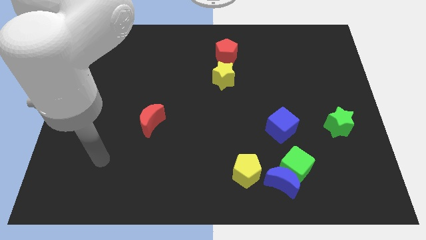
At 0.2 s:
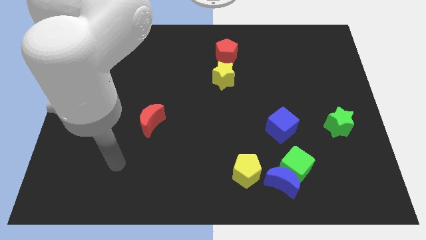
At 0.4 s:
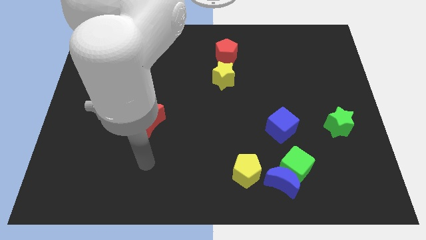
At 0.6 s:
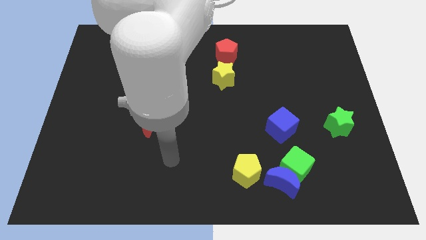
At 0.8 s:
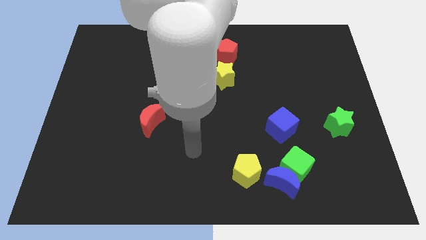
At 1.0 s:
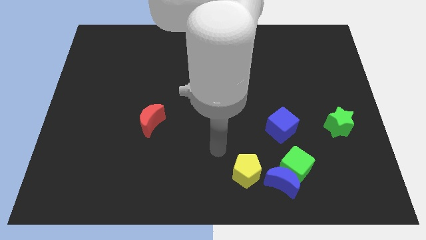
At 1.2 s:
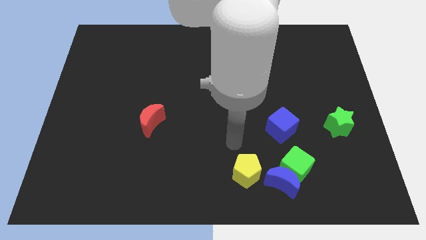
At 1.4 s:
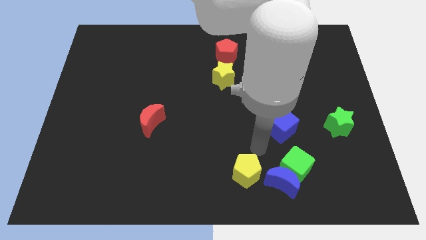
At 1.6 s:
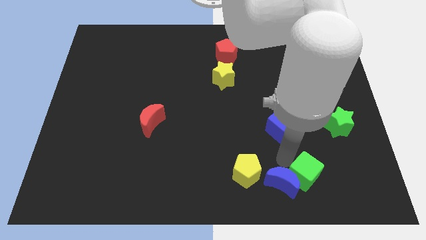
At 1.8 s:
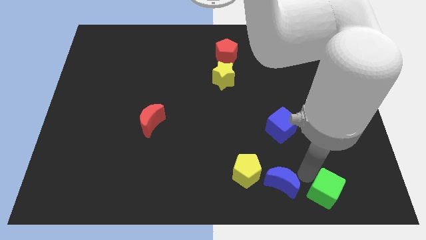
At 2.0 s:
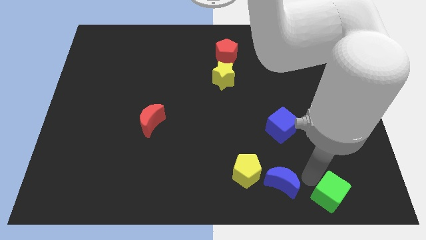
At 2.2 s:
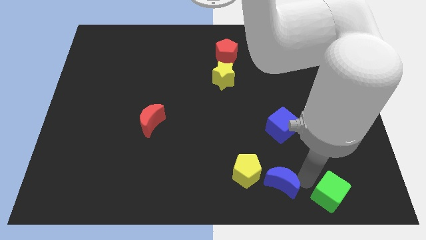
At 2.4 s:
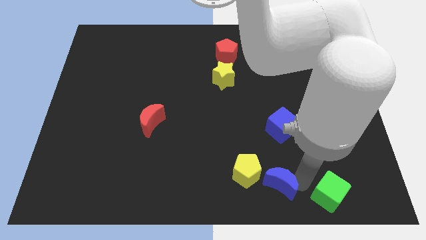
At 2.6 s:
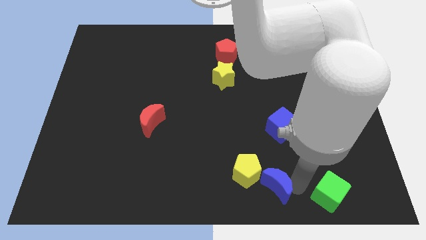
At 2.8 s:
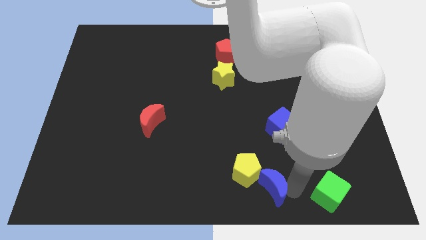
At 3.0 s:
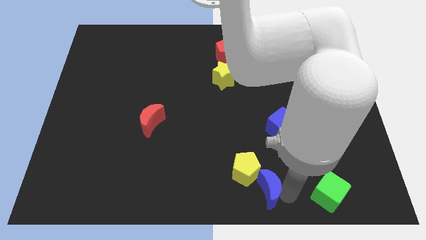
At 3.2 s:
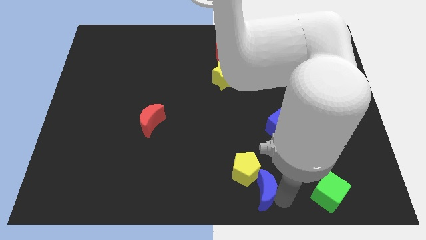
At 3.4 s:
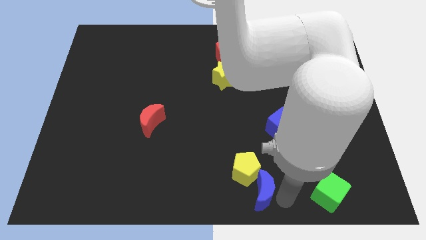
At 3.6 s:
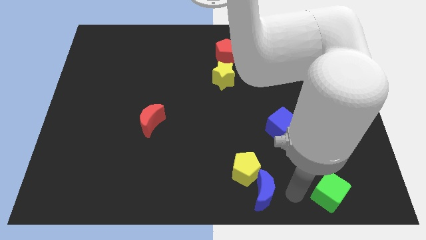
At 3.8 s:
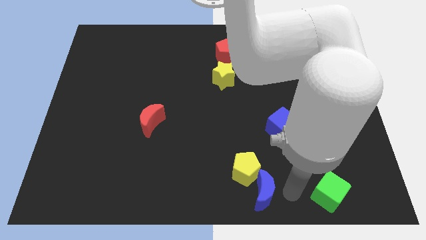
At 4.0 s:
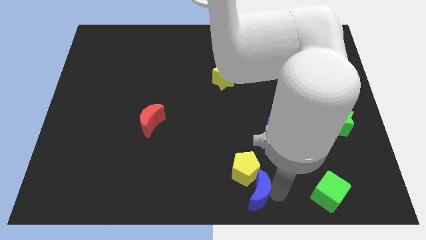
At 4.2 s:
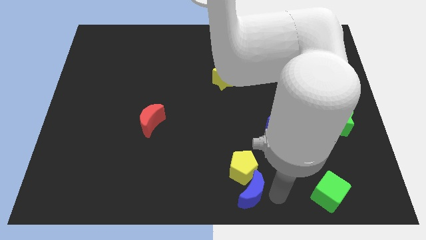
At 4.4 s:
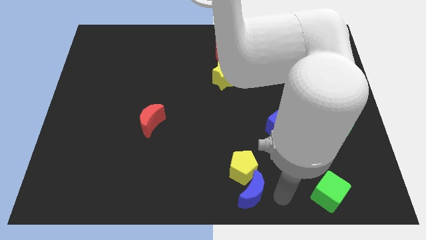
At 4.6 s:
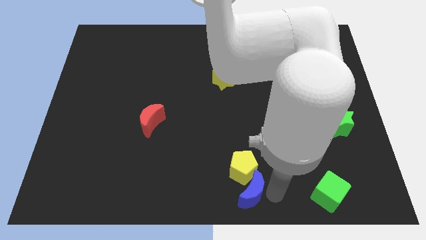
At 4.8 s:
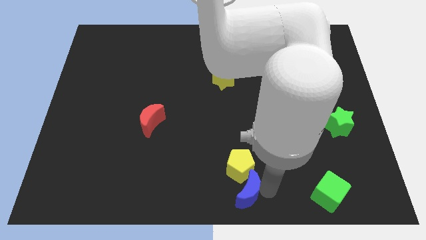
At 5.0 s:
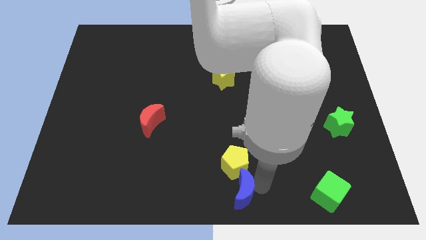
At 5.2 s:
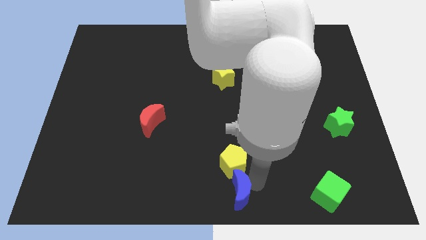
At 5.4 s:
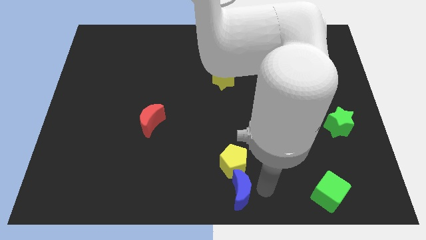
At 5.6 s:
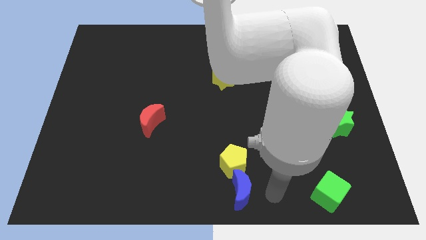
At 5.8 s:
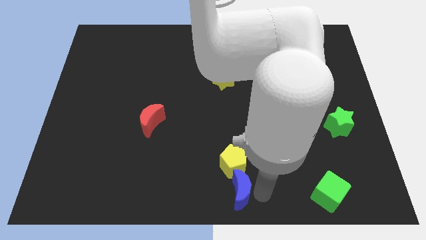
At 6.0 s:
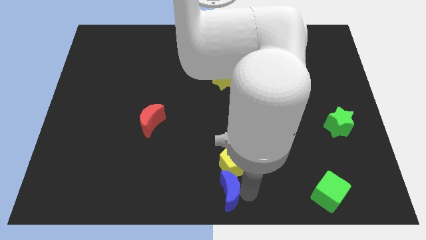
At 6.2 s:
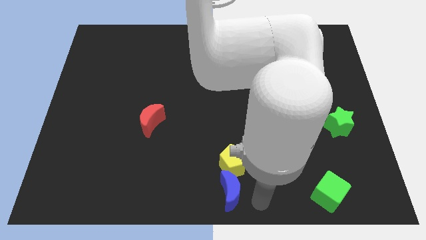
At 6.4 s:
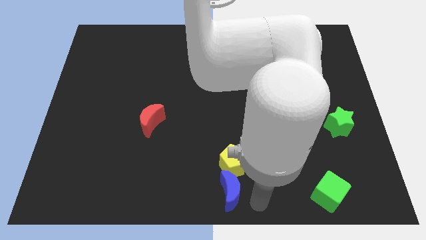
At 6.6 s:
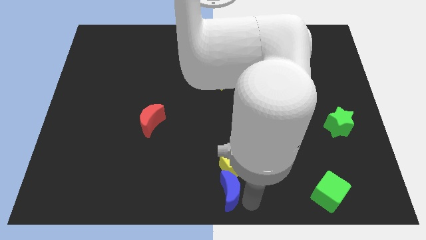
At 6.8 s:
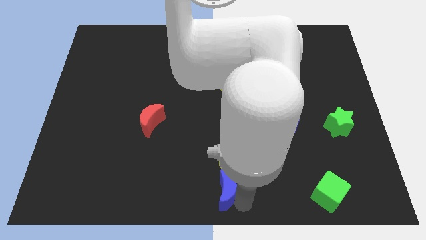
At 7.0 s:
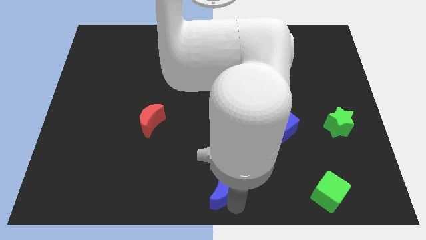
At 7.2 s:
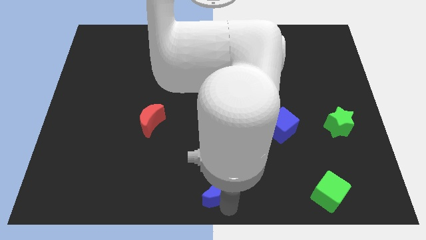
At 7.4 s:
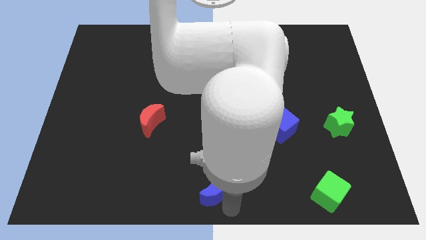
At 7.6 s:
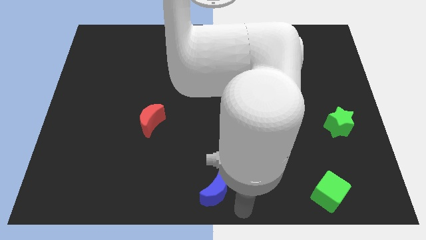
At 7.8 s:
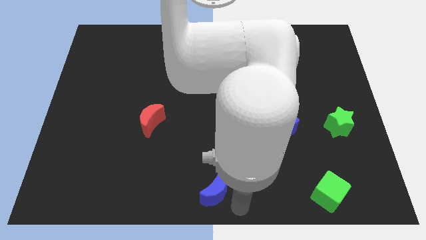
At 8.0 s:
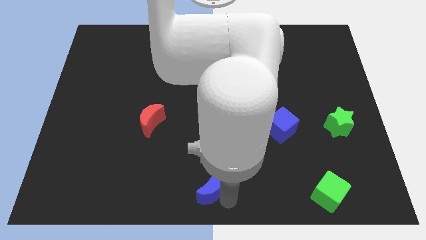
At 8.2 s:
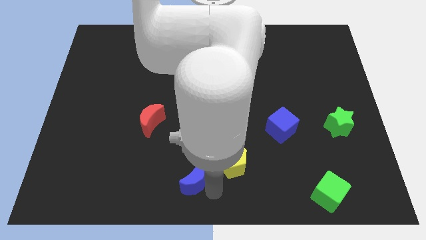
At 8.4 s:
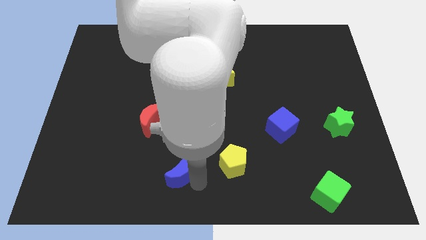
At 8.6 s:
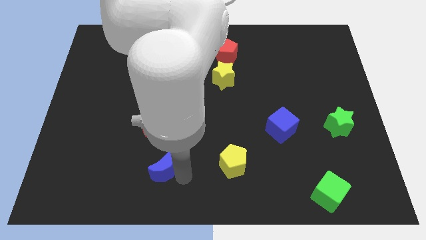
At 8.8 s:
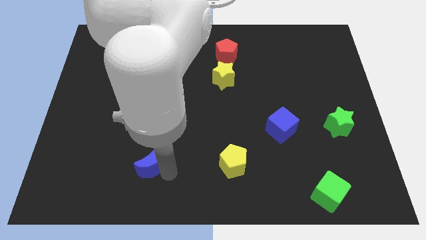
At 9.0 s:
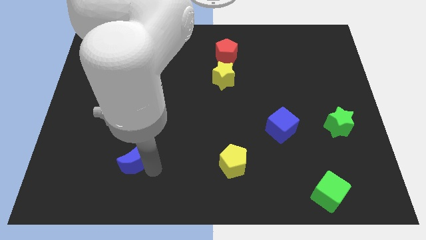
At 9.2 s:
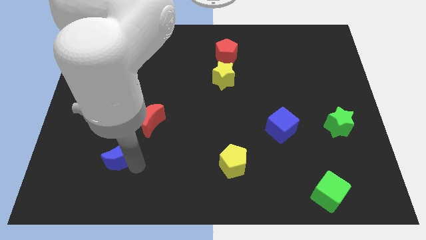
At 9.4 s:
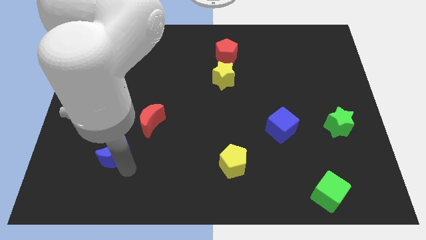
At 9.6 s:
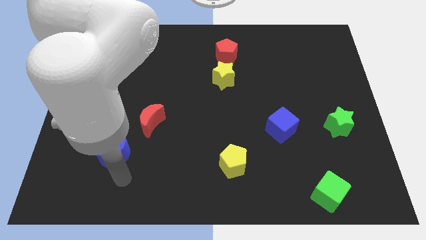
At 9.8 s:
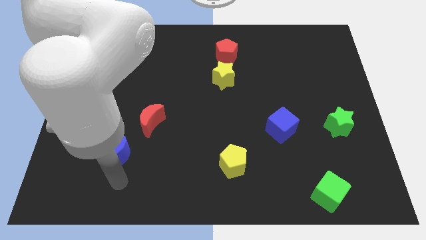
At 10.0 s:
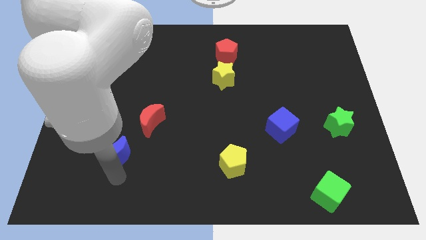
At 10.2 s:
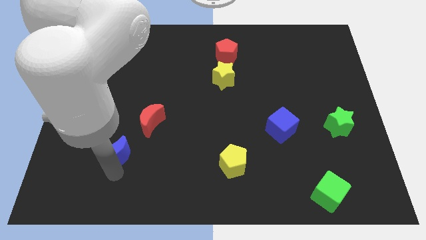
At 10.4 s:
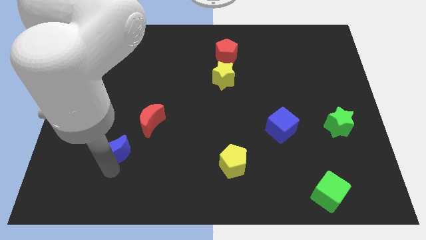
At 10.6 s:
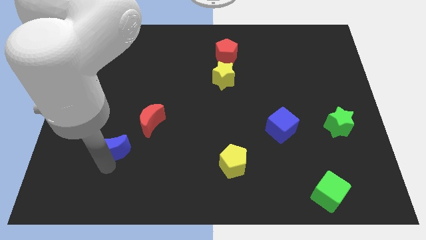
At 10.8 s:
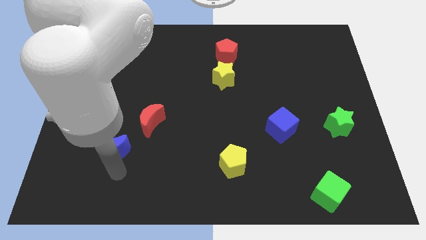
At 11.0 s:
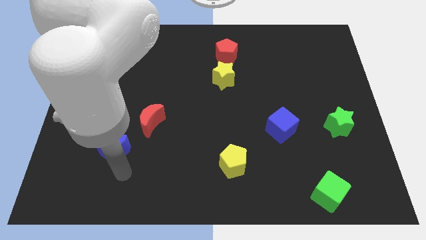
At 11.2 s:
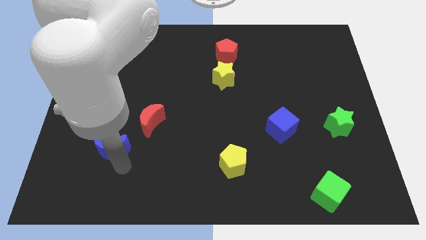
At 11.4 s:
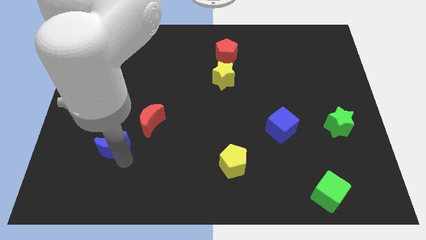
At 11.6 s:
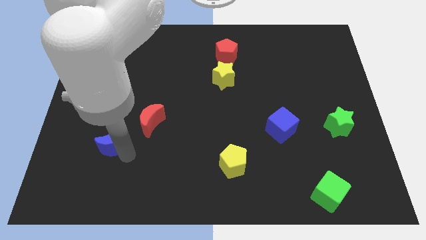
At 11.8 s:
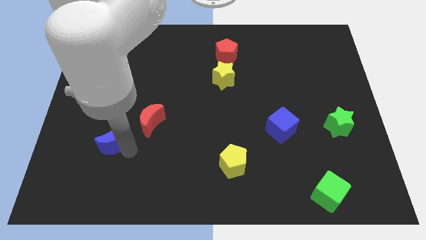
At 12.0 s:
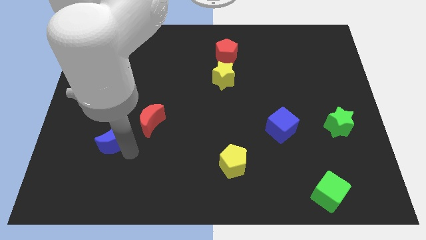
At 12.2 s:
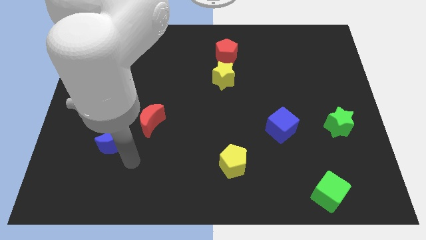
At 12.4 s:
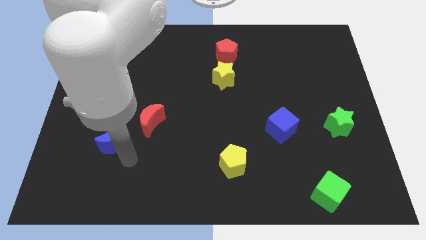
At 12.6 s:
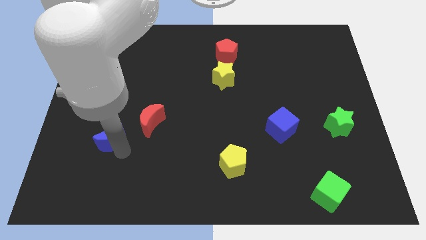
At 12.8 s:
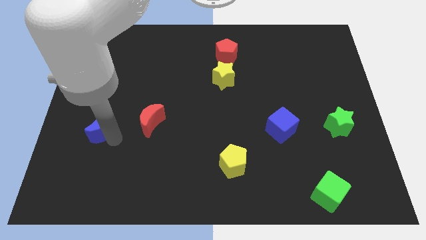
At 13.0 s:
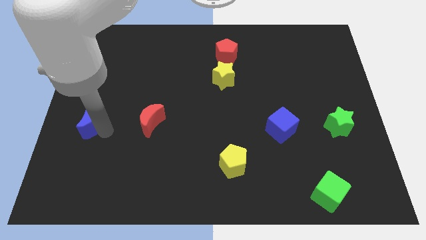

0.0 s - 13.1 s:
move the blue moon to the left side
